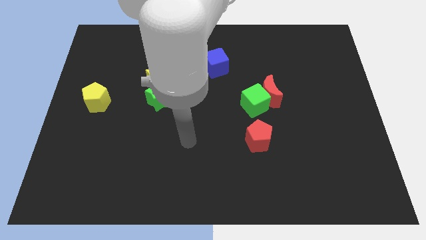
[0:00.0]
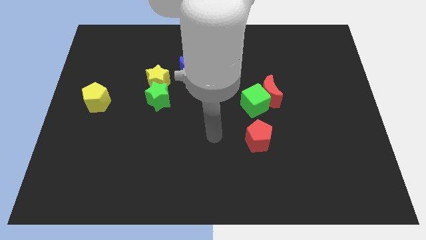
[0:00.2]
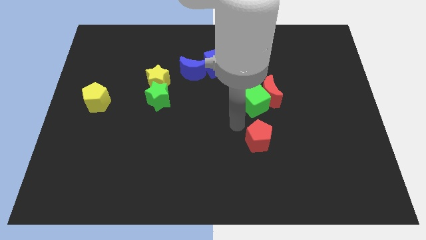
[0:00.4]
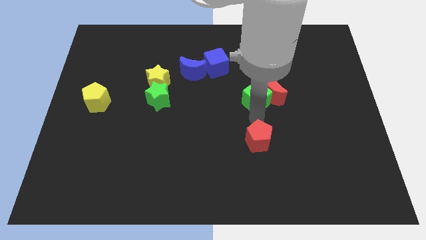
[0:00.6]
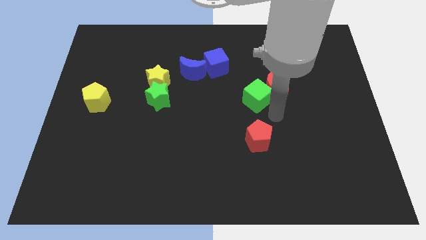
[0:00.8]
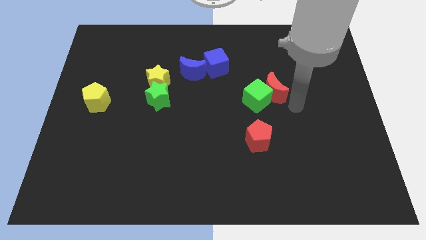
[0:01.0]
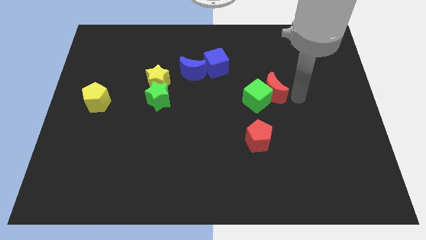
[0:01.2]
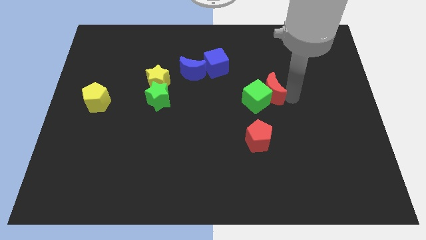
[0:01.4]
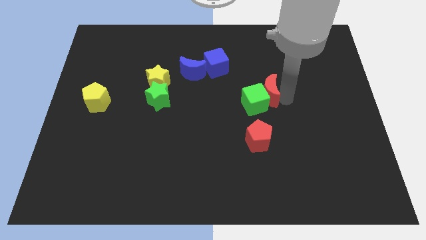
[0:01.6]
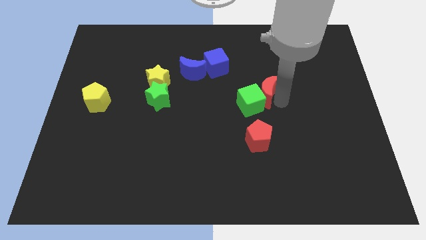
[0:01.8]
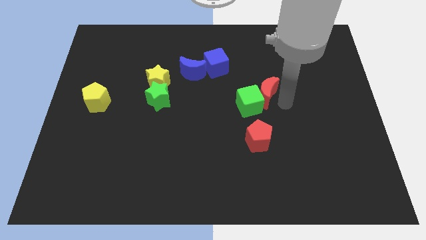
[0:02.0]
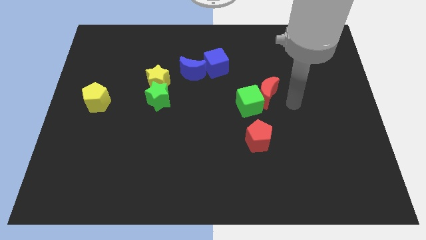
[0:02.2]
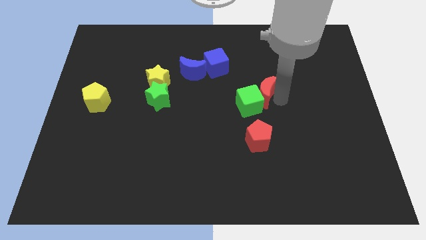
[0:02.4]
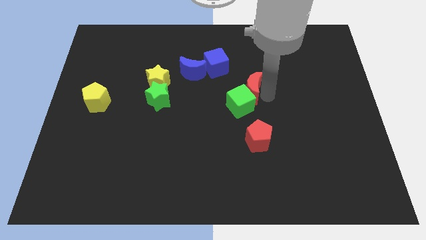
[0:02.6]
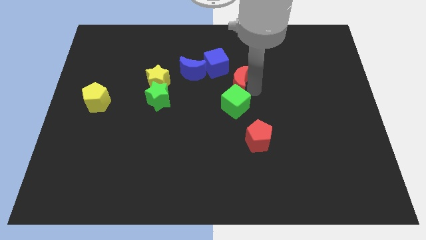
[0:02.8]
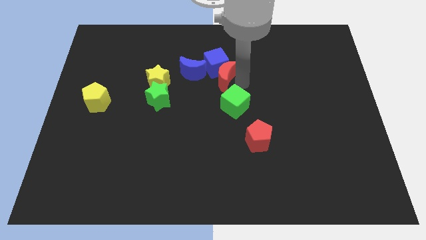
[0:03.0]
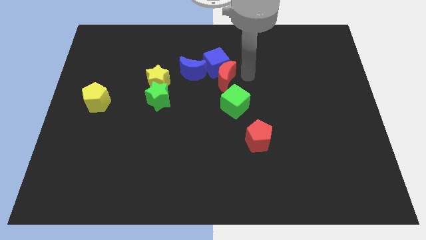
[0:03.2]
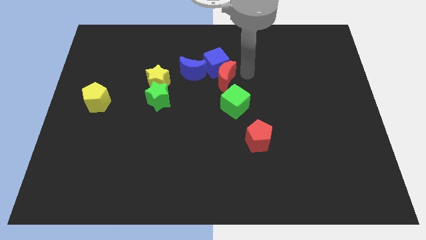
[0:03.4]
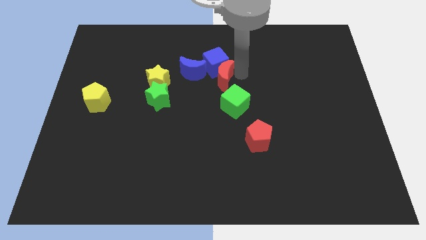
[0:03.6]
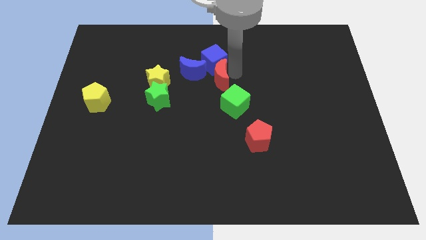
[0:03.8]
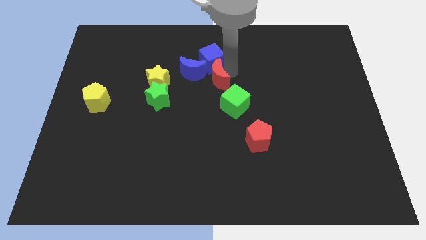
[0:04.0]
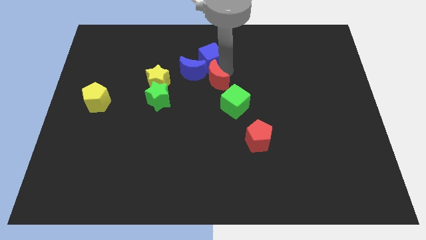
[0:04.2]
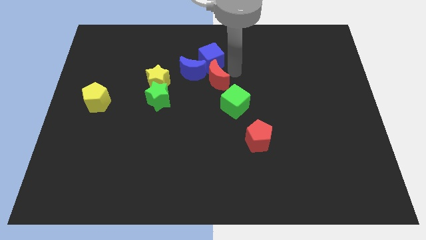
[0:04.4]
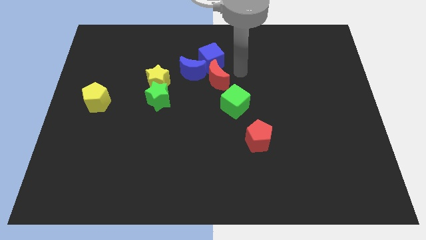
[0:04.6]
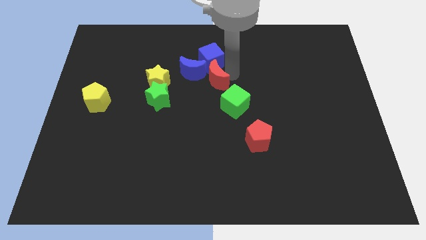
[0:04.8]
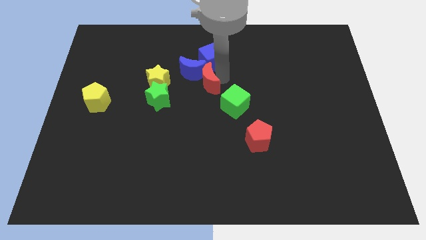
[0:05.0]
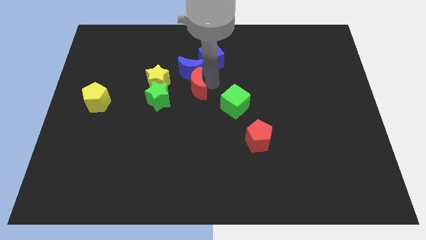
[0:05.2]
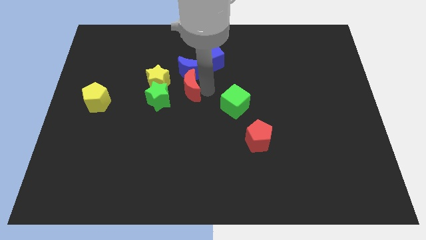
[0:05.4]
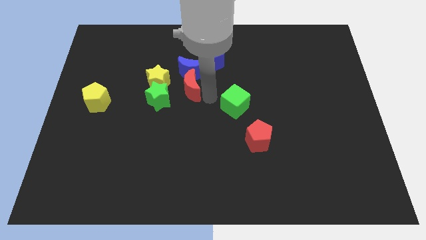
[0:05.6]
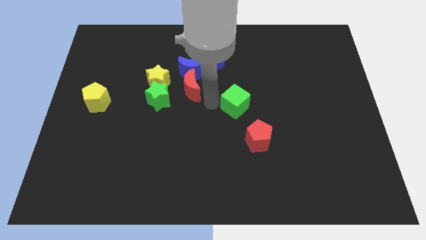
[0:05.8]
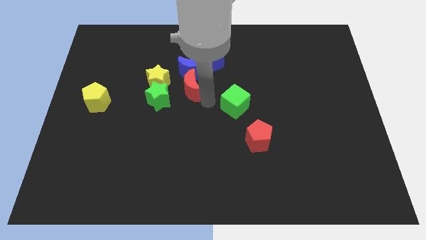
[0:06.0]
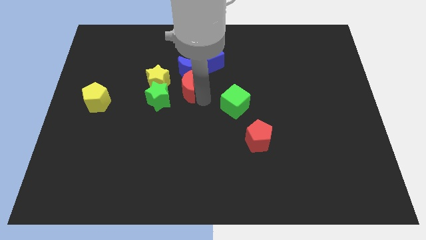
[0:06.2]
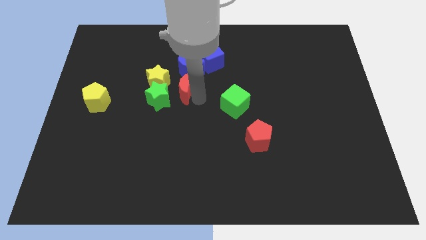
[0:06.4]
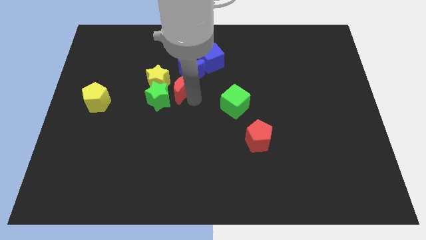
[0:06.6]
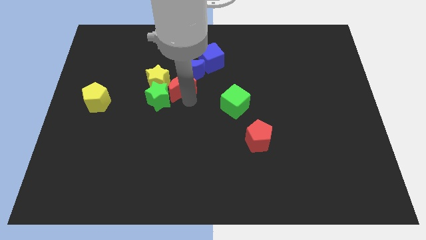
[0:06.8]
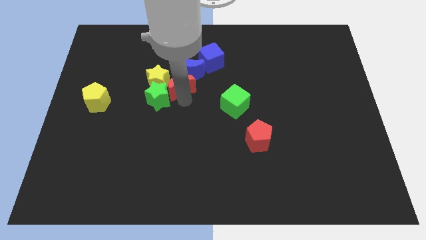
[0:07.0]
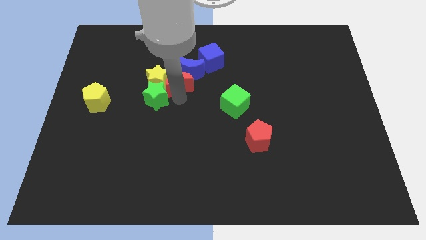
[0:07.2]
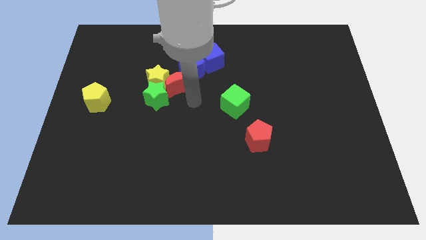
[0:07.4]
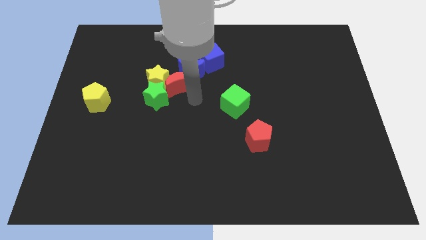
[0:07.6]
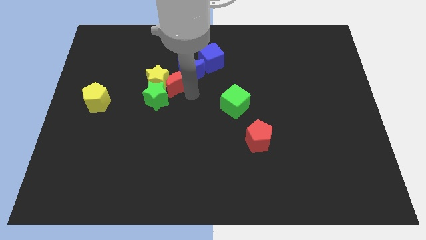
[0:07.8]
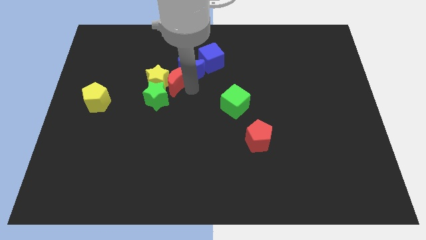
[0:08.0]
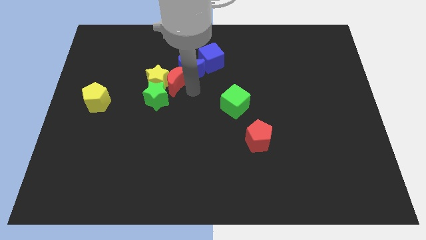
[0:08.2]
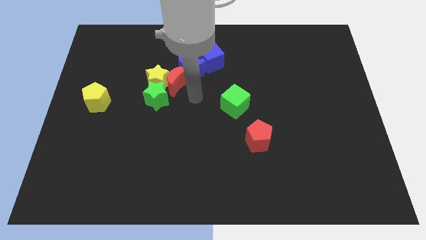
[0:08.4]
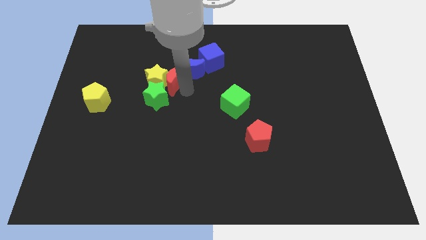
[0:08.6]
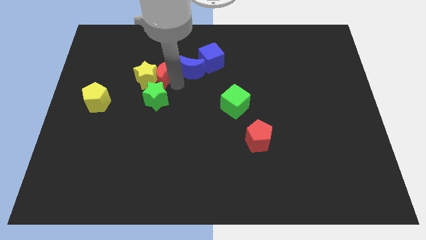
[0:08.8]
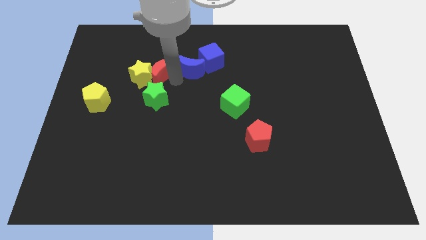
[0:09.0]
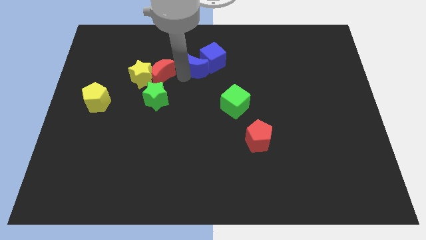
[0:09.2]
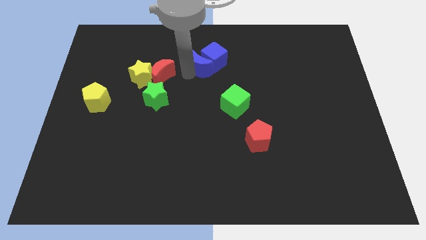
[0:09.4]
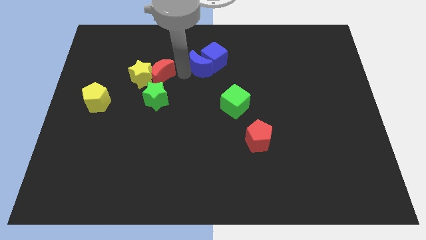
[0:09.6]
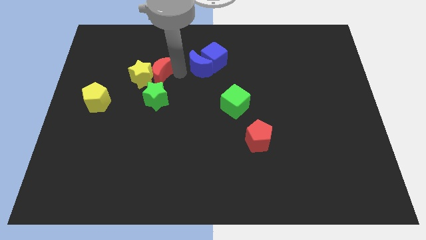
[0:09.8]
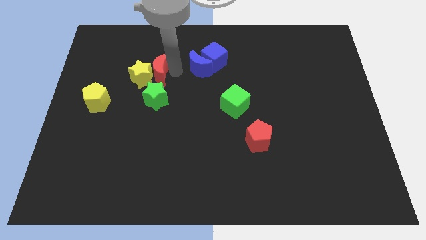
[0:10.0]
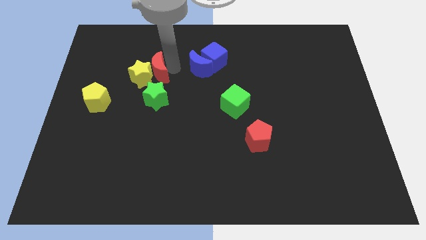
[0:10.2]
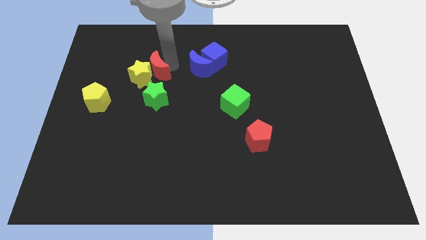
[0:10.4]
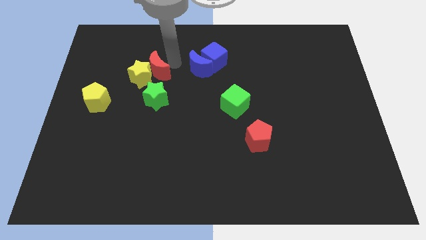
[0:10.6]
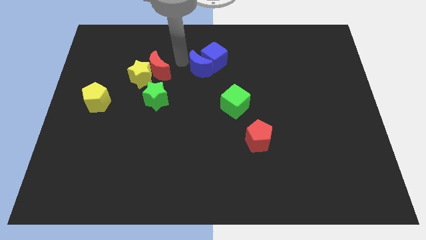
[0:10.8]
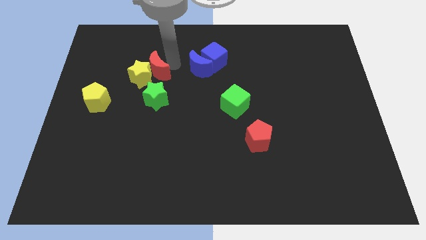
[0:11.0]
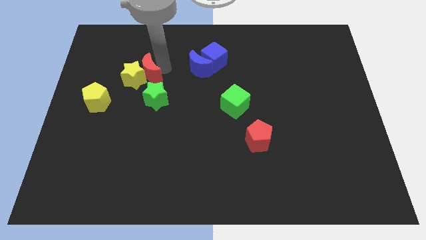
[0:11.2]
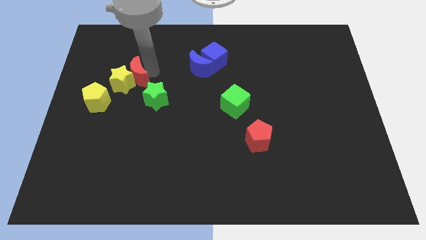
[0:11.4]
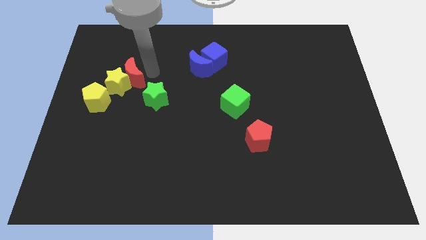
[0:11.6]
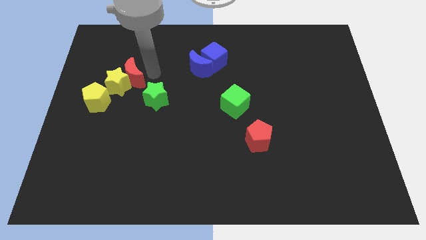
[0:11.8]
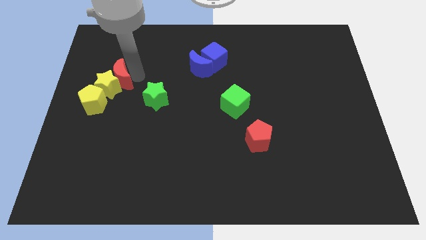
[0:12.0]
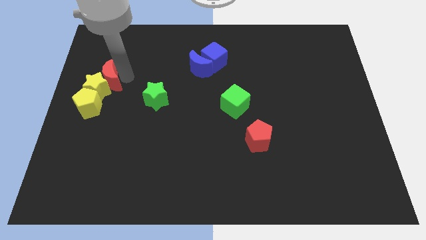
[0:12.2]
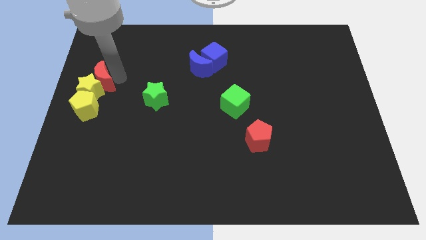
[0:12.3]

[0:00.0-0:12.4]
put the red moon to the left side of the board
